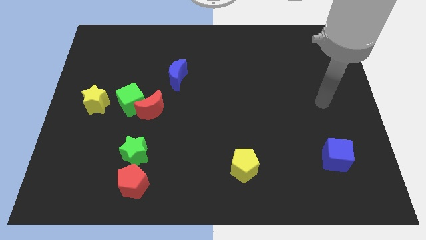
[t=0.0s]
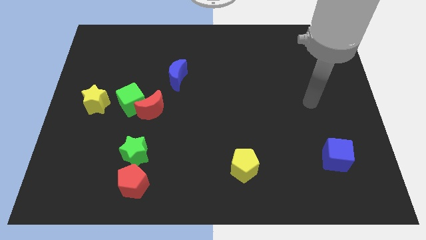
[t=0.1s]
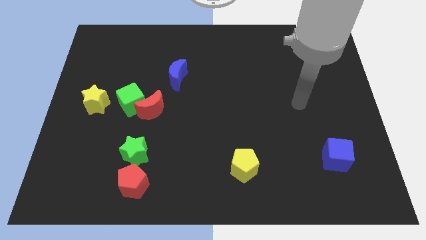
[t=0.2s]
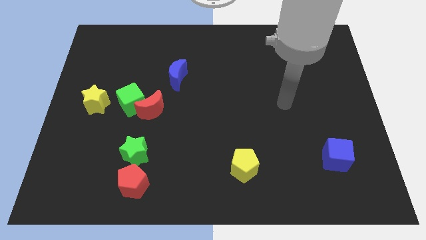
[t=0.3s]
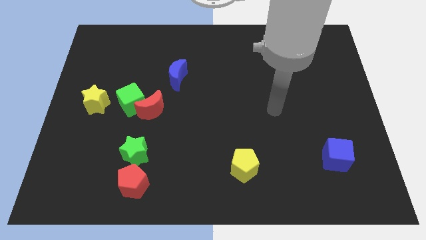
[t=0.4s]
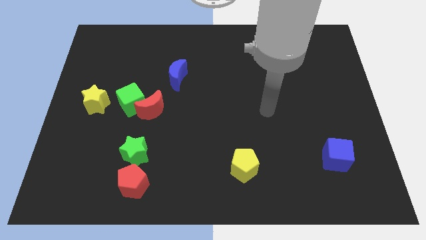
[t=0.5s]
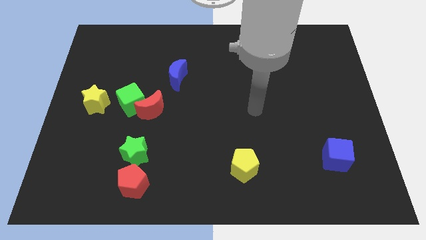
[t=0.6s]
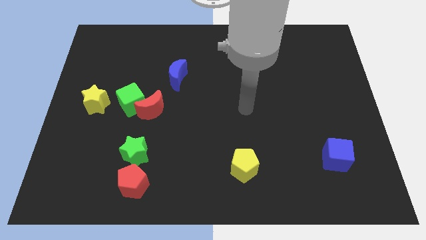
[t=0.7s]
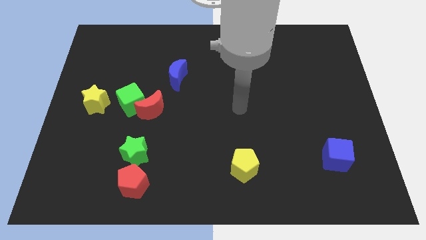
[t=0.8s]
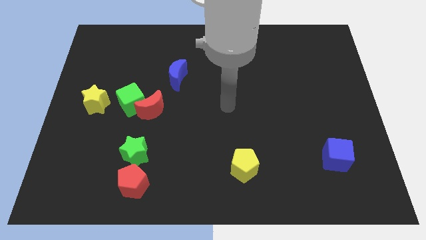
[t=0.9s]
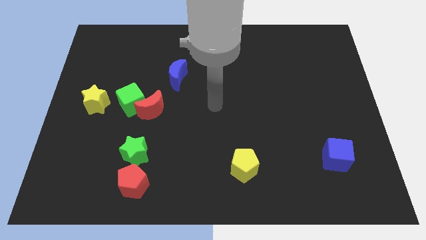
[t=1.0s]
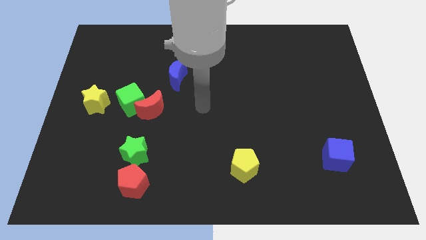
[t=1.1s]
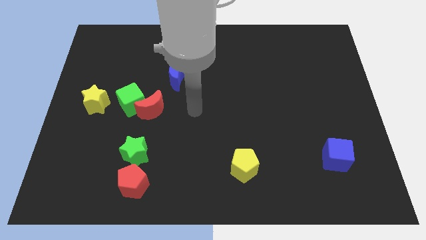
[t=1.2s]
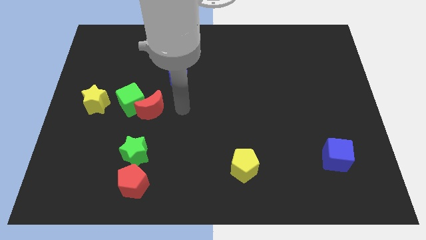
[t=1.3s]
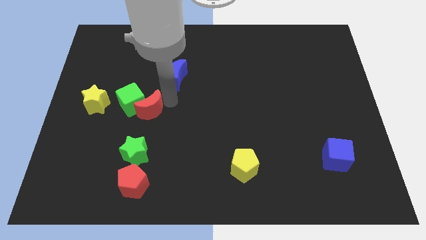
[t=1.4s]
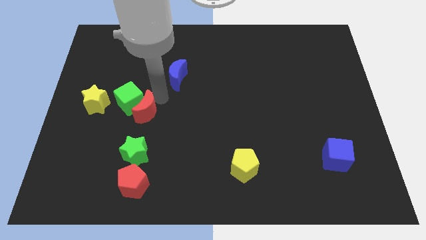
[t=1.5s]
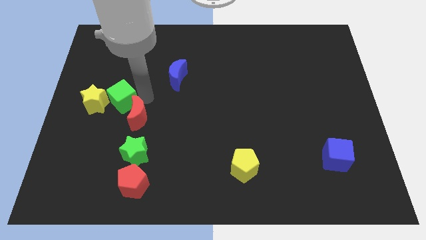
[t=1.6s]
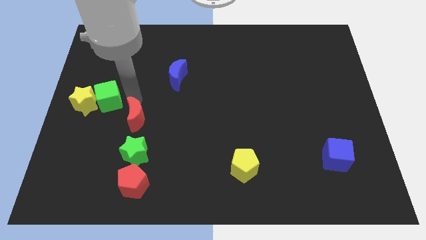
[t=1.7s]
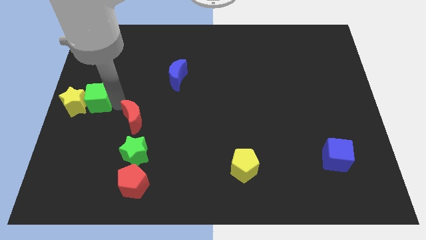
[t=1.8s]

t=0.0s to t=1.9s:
pull the red moon apart from the green cube

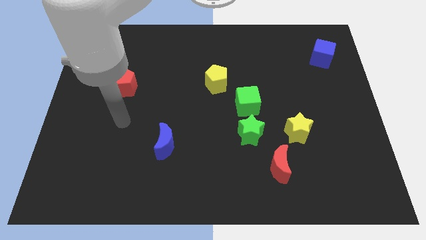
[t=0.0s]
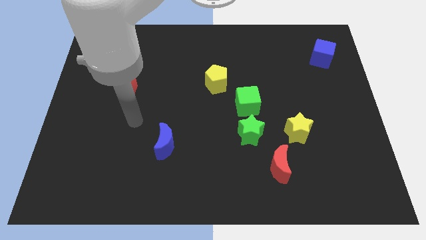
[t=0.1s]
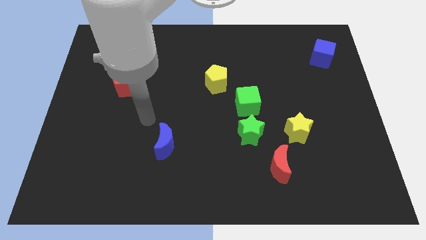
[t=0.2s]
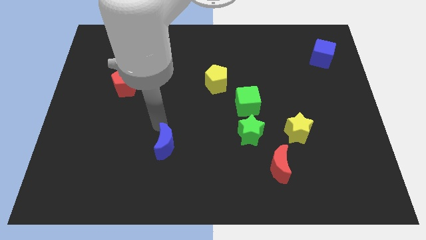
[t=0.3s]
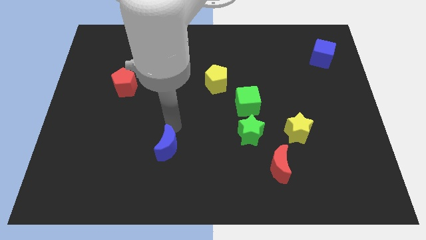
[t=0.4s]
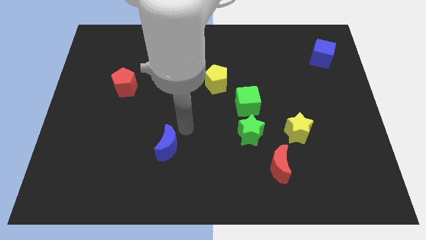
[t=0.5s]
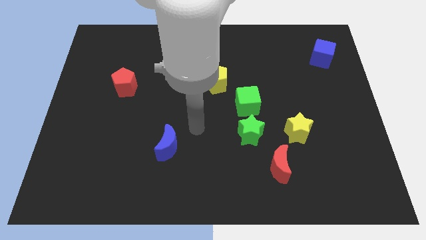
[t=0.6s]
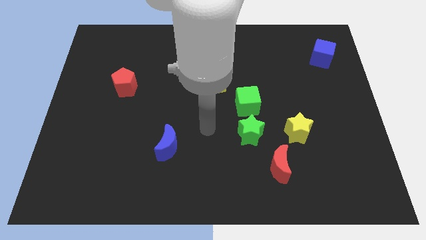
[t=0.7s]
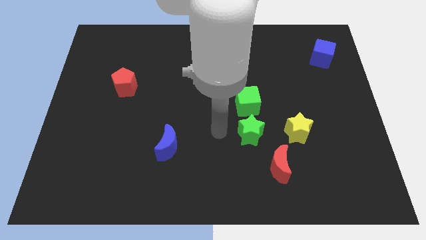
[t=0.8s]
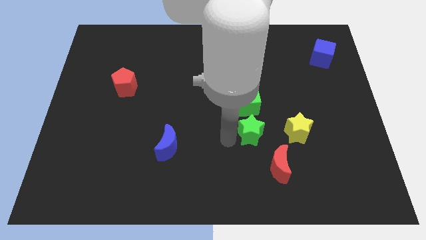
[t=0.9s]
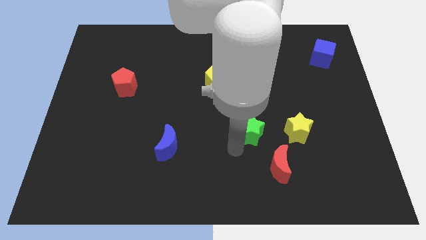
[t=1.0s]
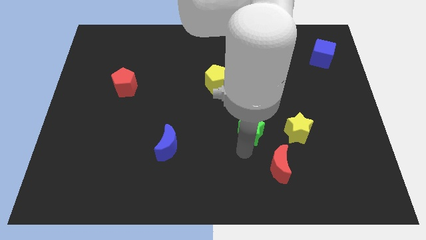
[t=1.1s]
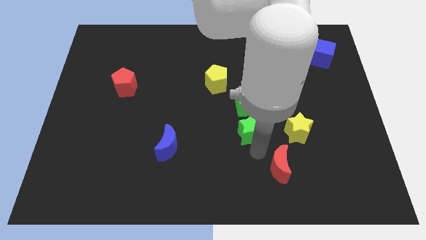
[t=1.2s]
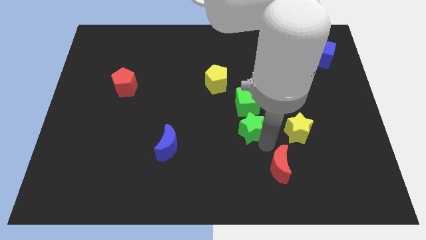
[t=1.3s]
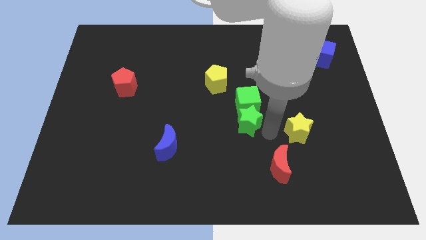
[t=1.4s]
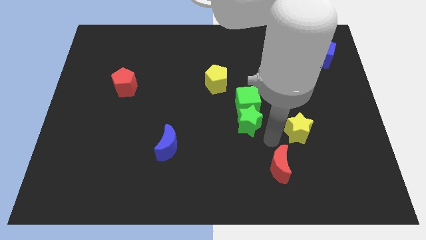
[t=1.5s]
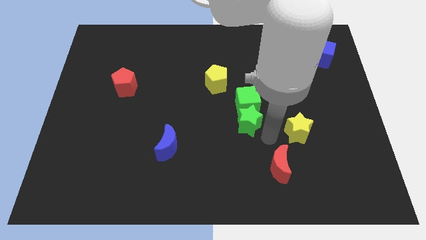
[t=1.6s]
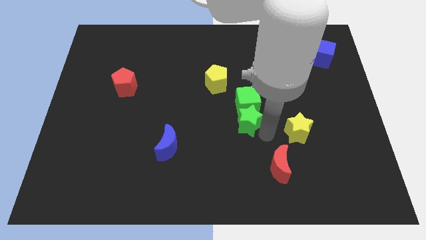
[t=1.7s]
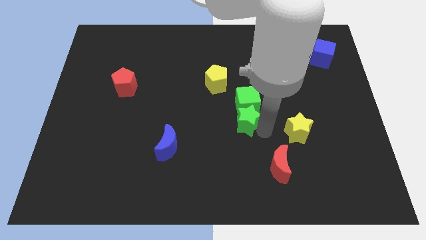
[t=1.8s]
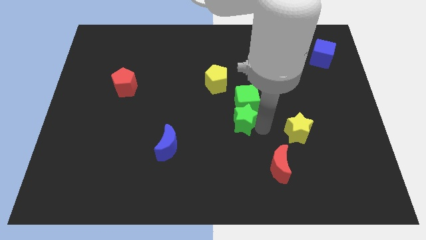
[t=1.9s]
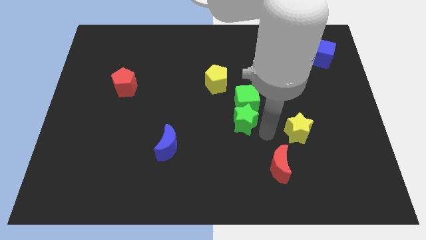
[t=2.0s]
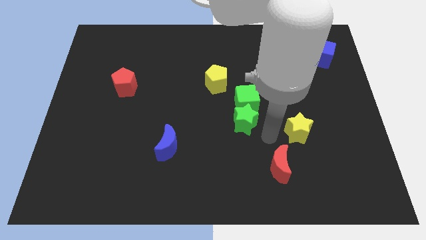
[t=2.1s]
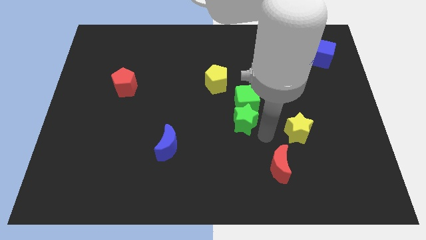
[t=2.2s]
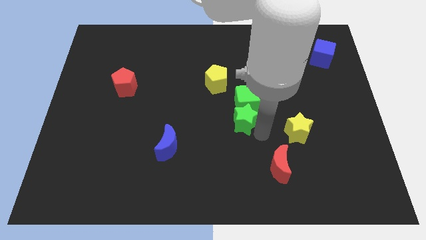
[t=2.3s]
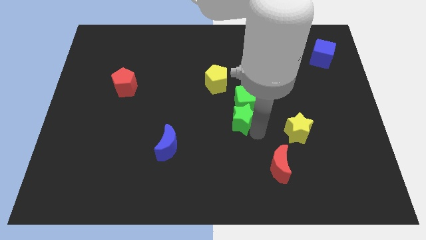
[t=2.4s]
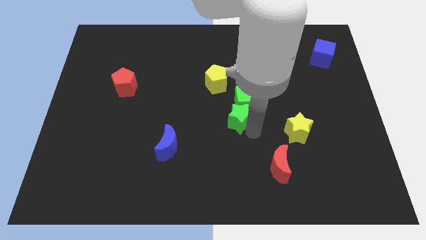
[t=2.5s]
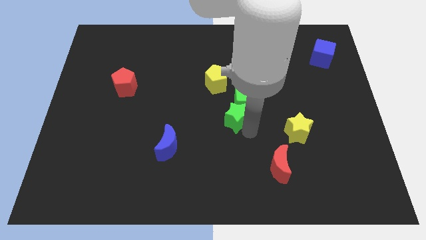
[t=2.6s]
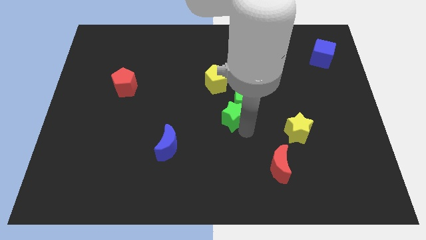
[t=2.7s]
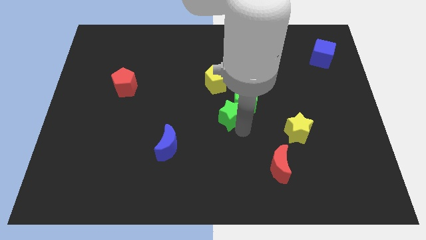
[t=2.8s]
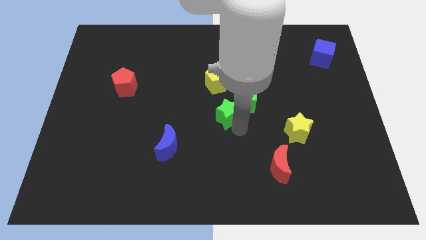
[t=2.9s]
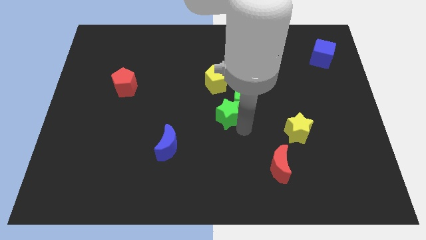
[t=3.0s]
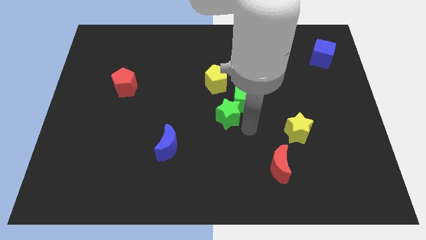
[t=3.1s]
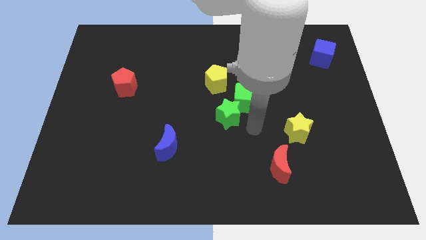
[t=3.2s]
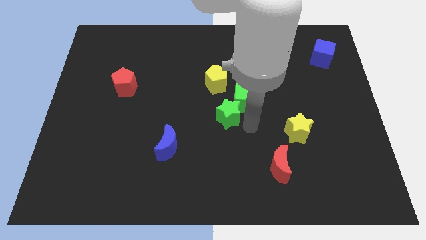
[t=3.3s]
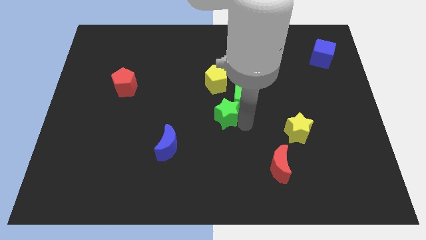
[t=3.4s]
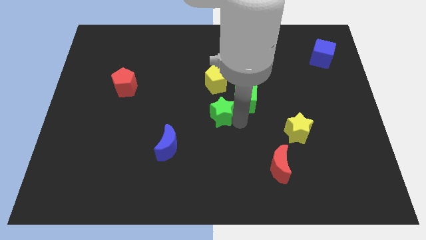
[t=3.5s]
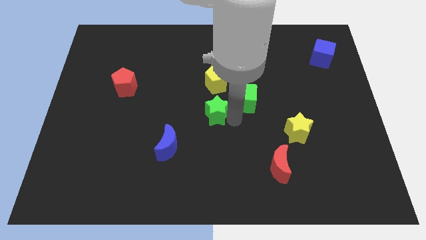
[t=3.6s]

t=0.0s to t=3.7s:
pull the green star apart from the green cube and red moon

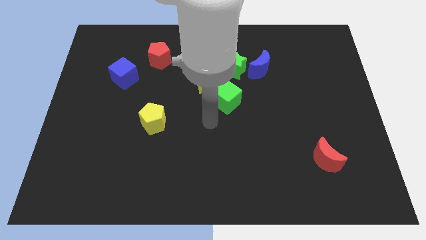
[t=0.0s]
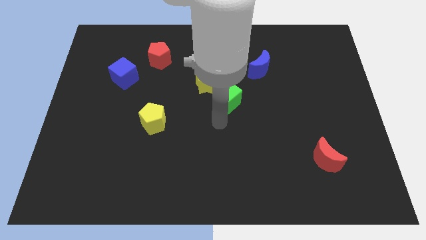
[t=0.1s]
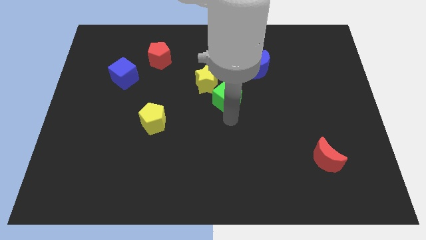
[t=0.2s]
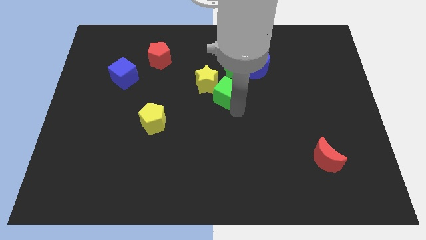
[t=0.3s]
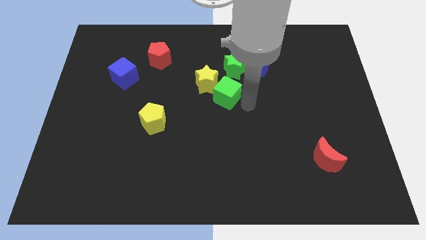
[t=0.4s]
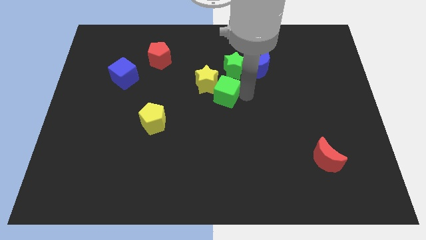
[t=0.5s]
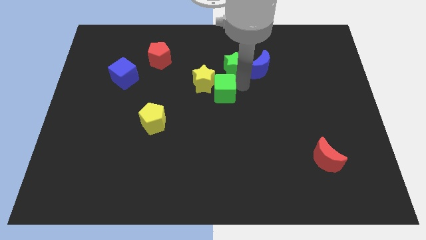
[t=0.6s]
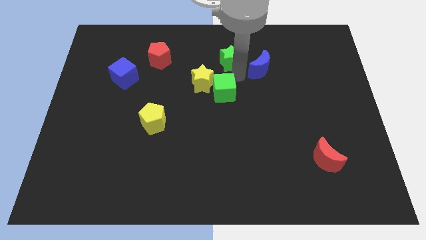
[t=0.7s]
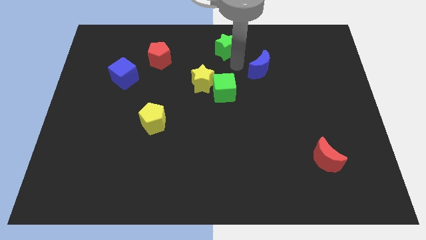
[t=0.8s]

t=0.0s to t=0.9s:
pull the blue moon apart from the green star

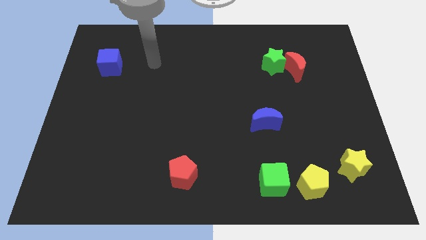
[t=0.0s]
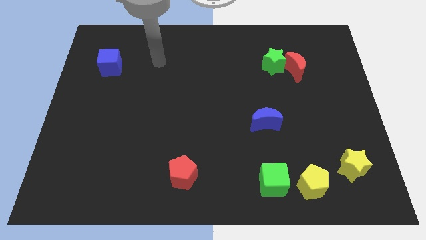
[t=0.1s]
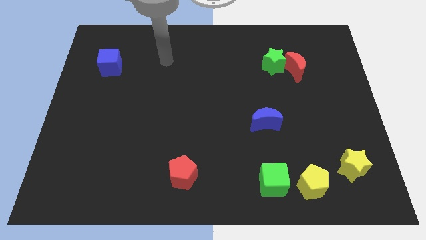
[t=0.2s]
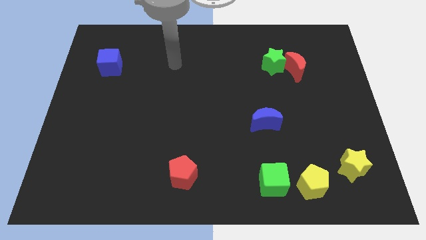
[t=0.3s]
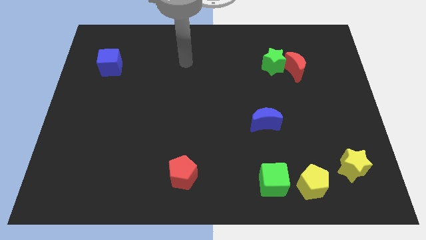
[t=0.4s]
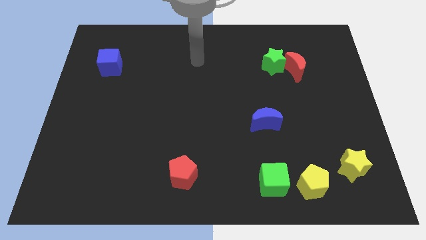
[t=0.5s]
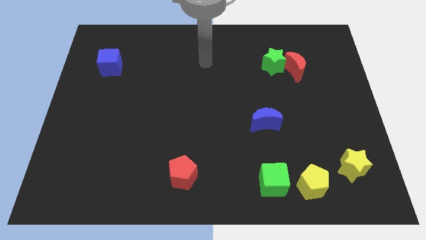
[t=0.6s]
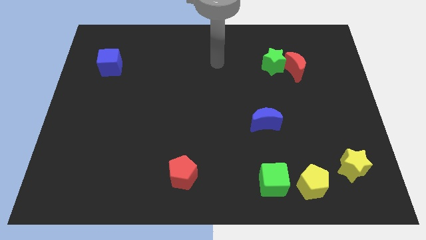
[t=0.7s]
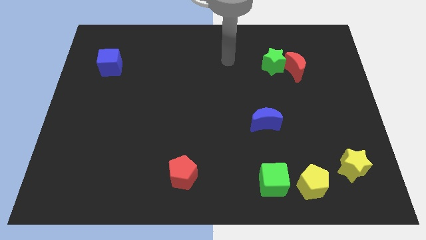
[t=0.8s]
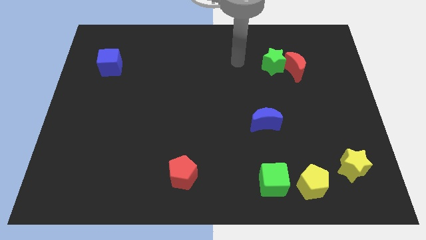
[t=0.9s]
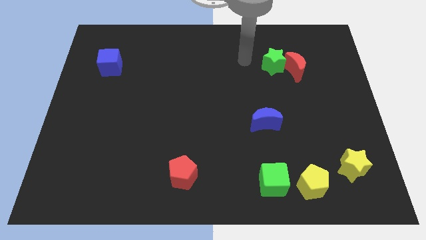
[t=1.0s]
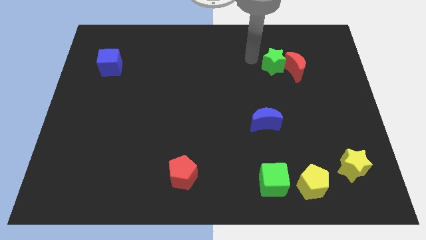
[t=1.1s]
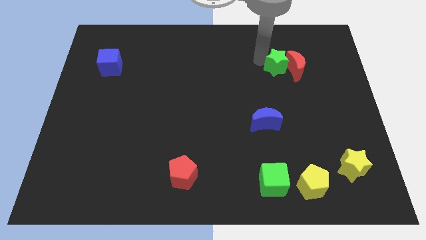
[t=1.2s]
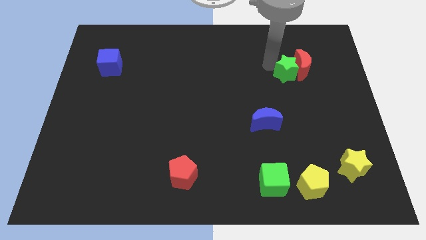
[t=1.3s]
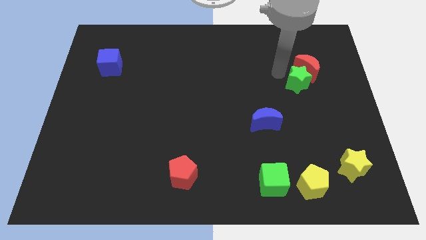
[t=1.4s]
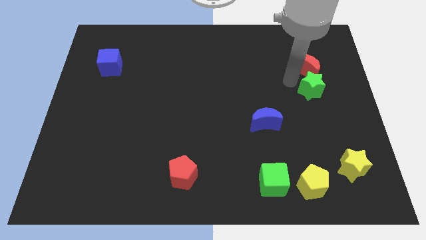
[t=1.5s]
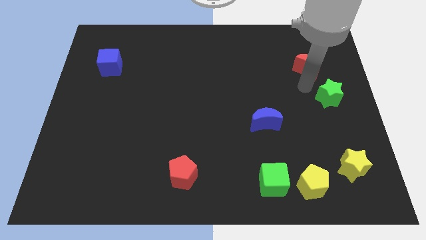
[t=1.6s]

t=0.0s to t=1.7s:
separate the red moon from the green star

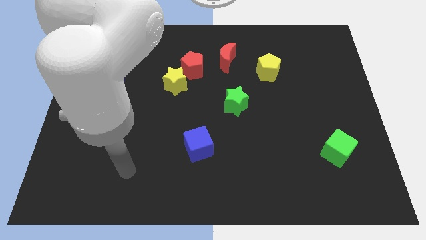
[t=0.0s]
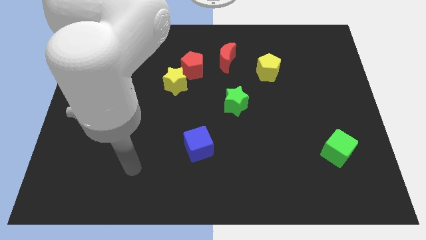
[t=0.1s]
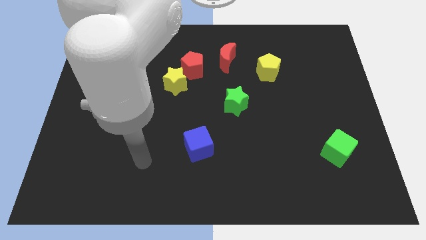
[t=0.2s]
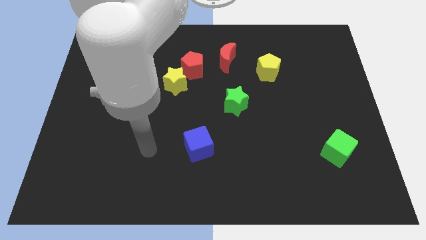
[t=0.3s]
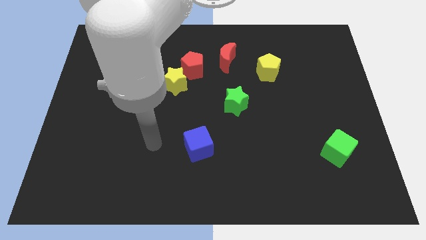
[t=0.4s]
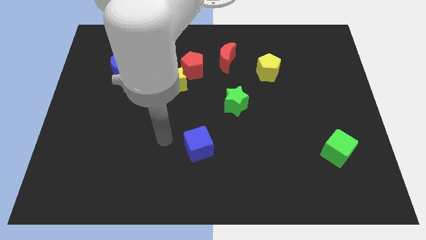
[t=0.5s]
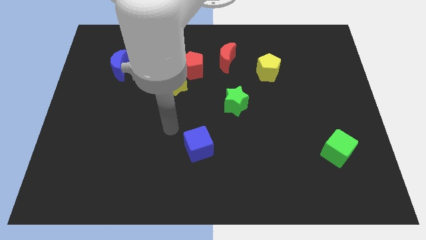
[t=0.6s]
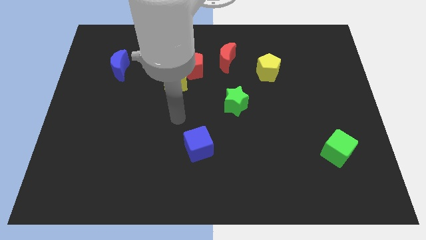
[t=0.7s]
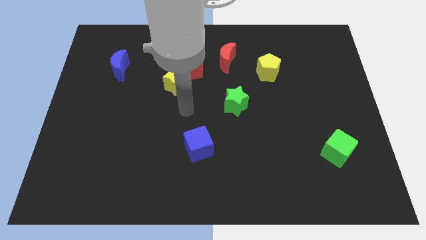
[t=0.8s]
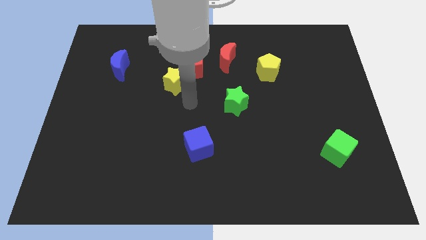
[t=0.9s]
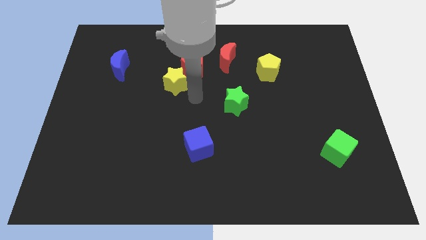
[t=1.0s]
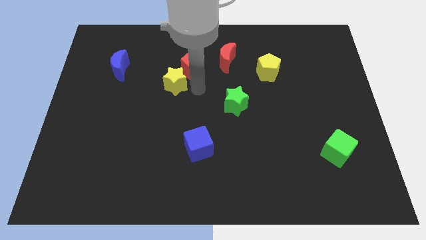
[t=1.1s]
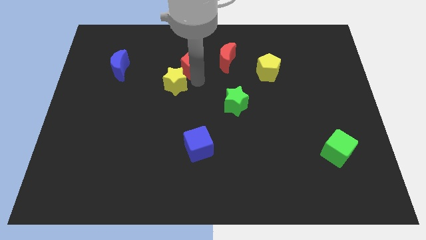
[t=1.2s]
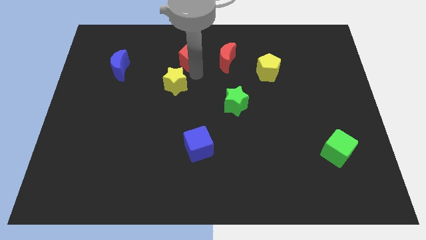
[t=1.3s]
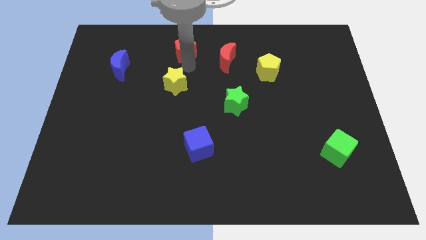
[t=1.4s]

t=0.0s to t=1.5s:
separate the yellow star from the red pentagon
